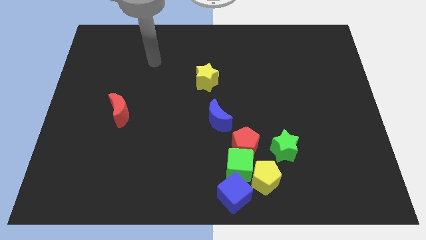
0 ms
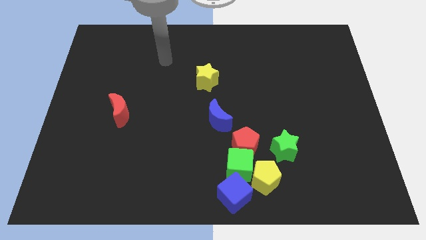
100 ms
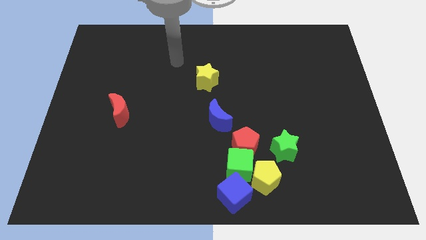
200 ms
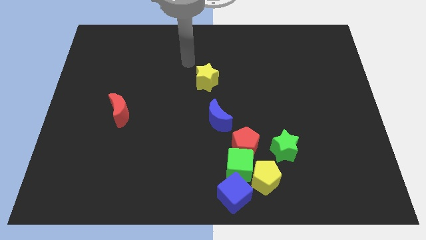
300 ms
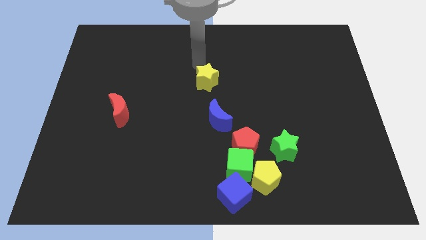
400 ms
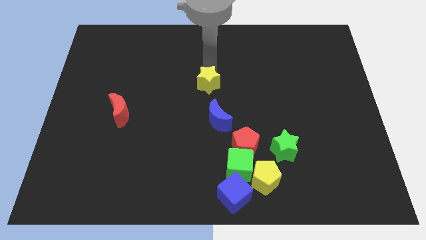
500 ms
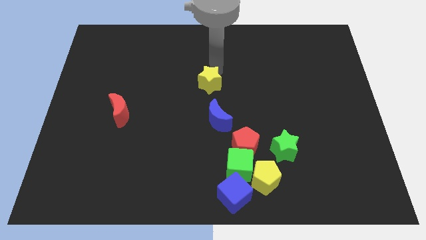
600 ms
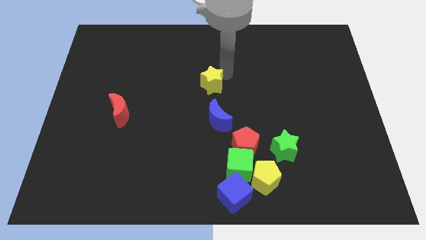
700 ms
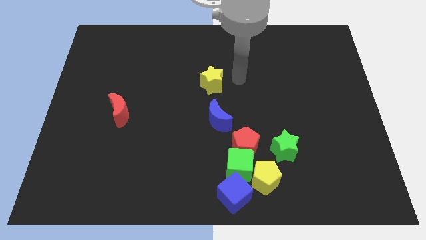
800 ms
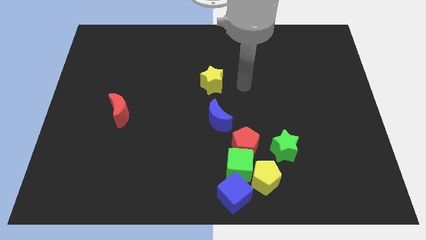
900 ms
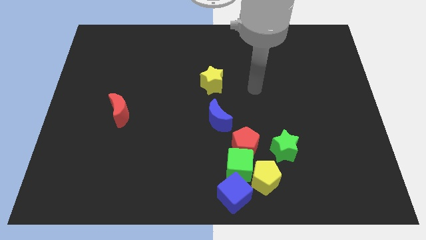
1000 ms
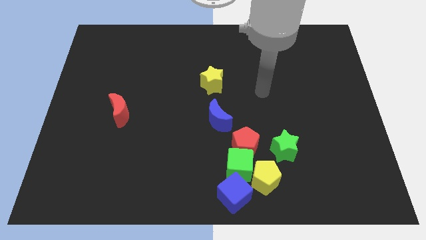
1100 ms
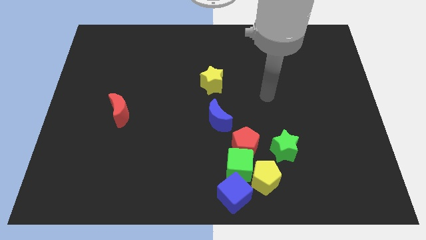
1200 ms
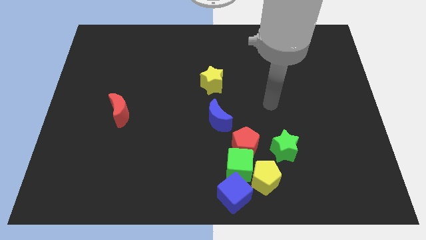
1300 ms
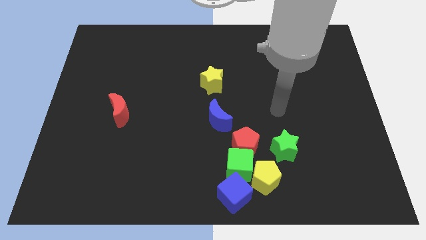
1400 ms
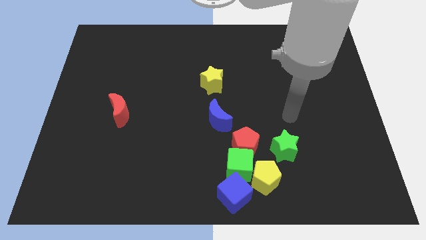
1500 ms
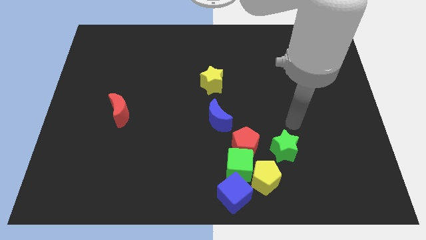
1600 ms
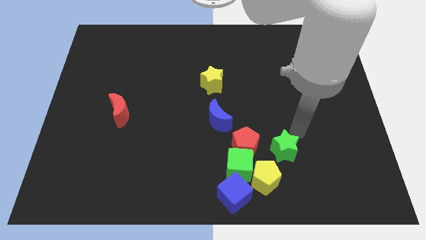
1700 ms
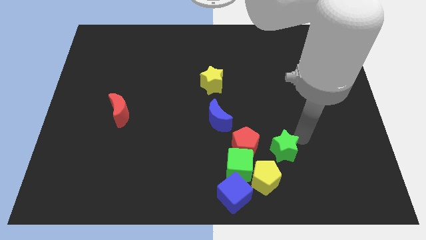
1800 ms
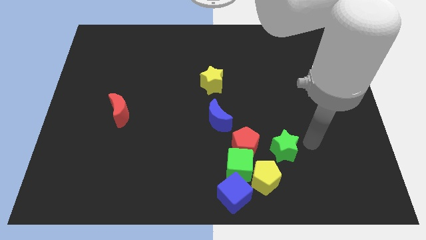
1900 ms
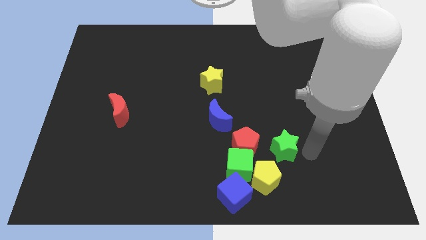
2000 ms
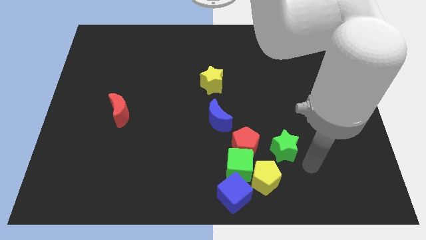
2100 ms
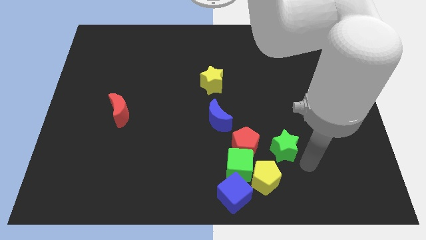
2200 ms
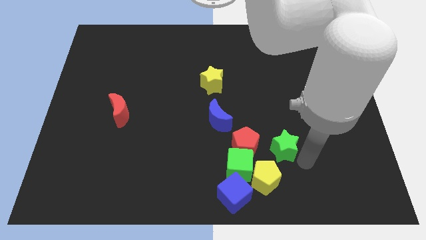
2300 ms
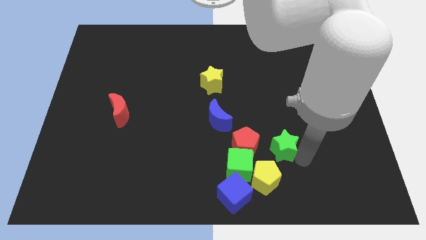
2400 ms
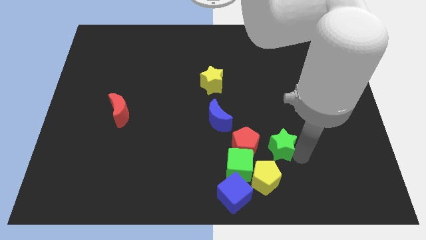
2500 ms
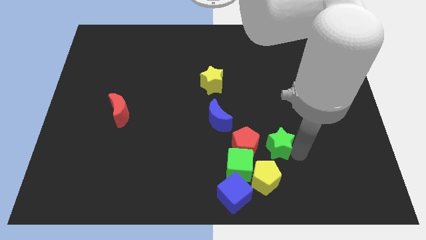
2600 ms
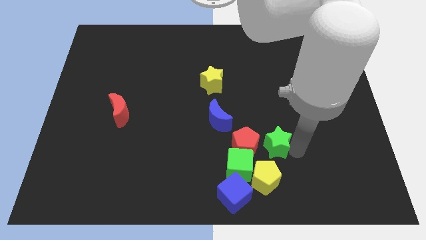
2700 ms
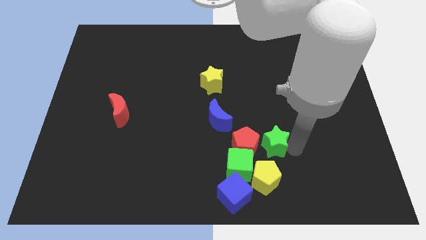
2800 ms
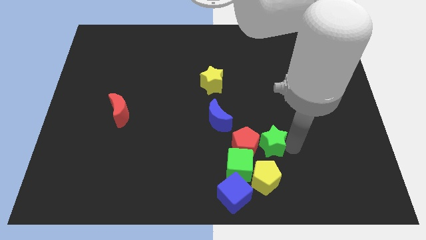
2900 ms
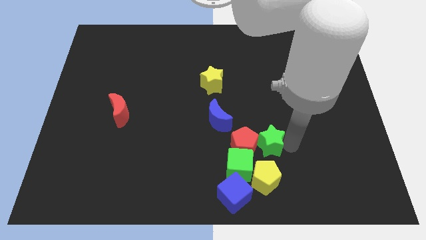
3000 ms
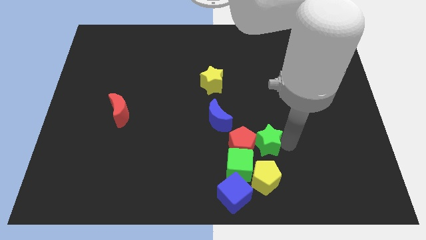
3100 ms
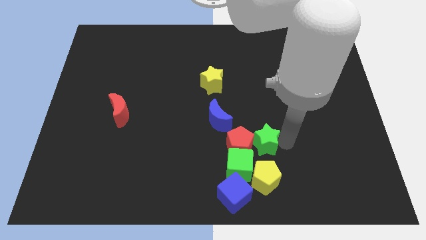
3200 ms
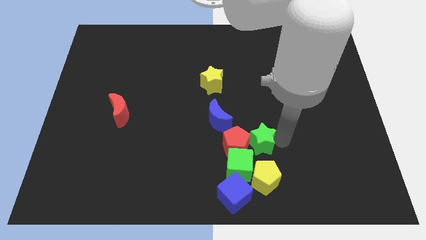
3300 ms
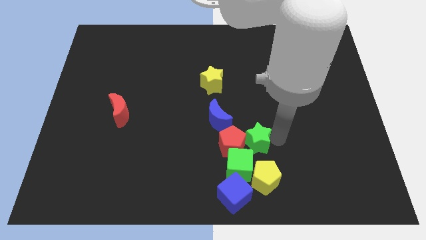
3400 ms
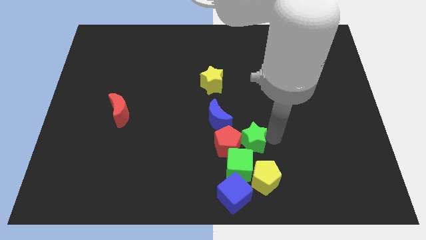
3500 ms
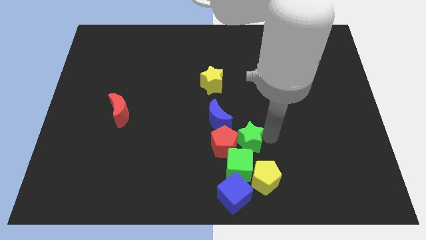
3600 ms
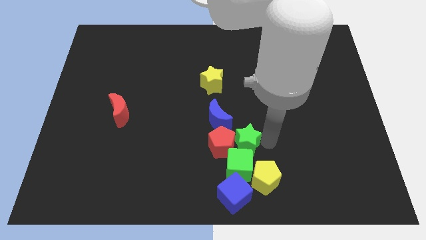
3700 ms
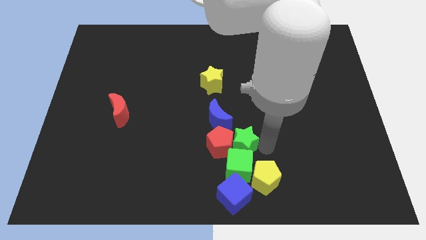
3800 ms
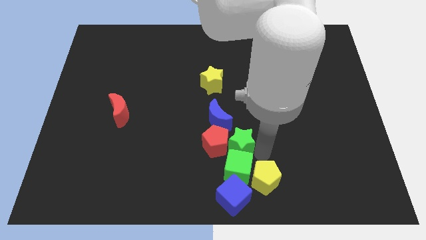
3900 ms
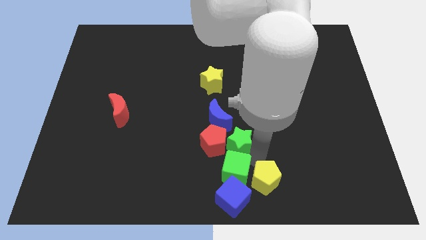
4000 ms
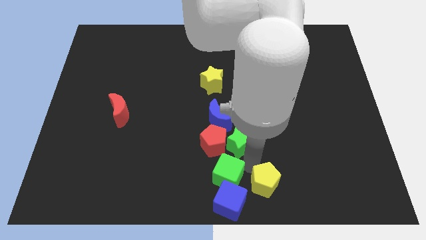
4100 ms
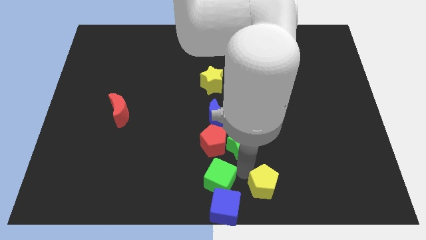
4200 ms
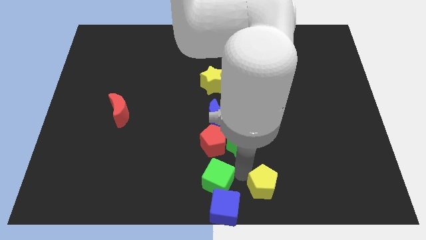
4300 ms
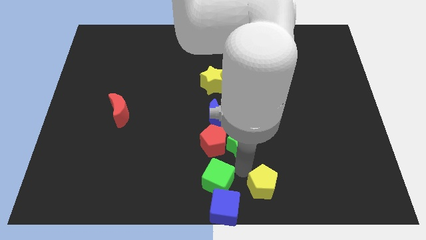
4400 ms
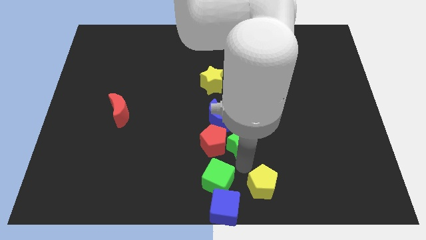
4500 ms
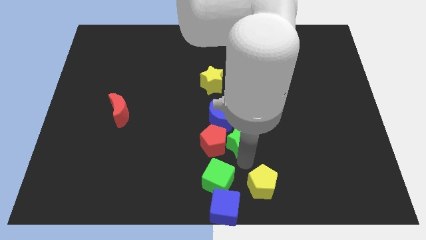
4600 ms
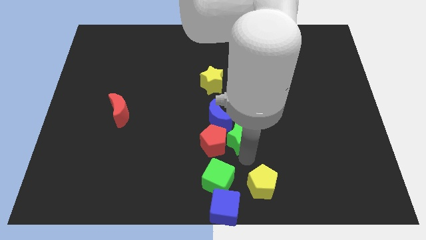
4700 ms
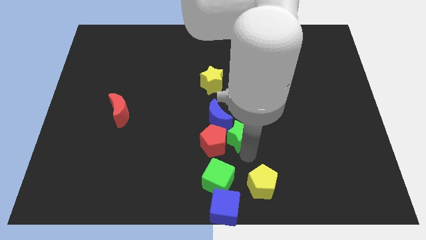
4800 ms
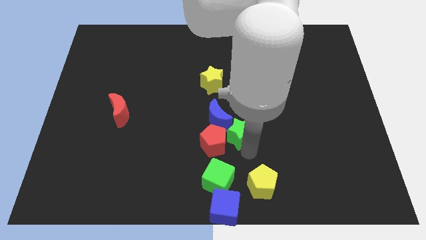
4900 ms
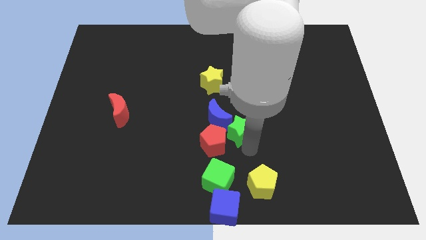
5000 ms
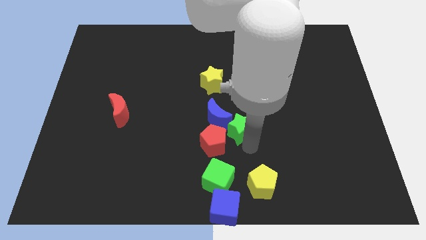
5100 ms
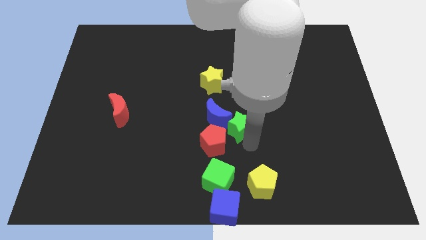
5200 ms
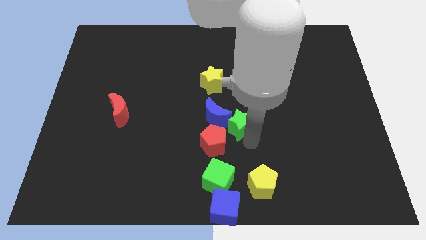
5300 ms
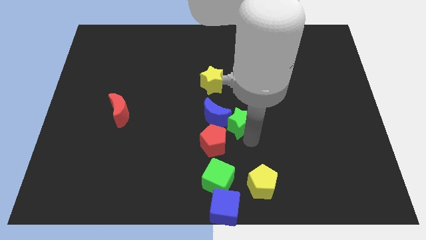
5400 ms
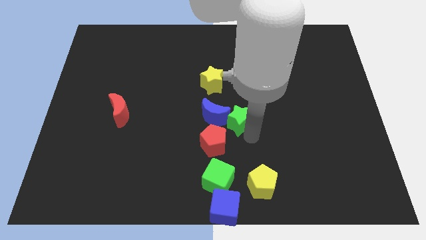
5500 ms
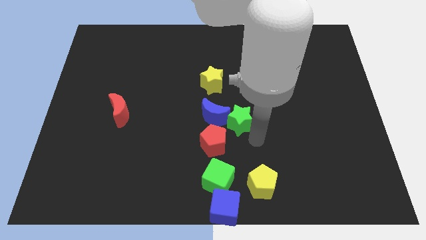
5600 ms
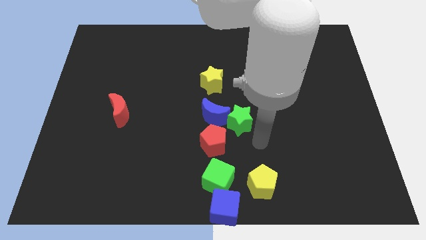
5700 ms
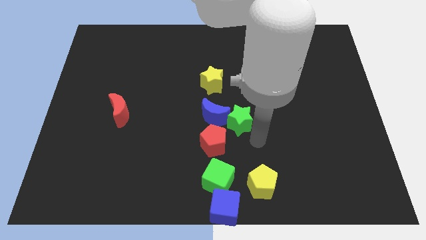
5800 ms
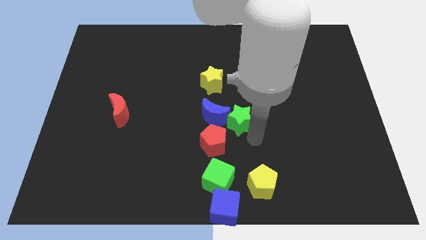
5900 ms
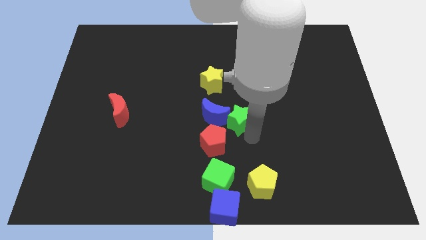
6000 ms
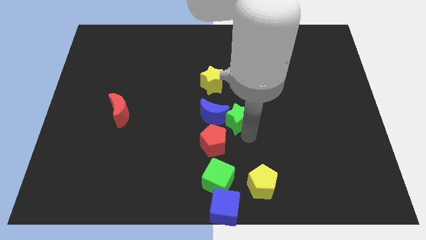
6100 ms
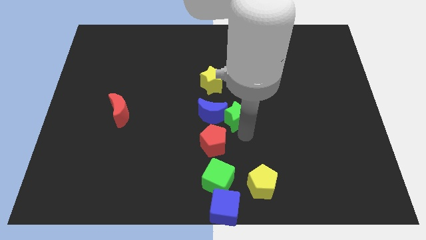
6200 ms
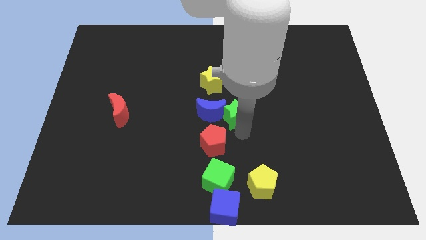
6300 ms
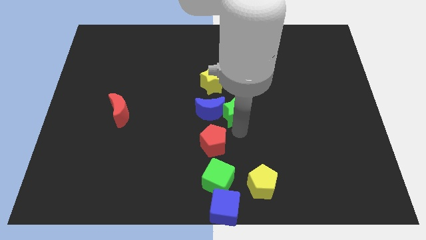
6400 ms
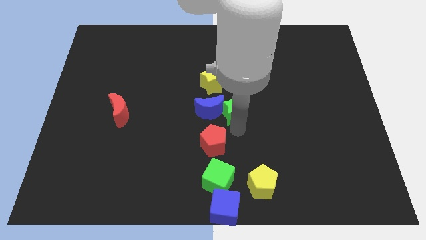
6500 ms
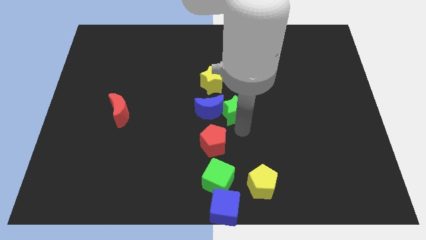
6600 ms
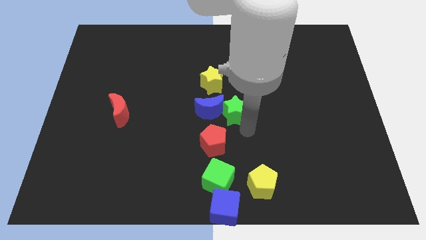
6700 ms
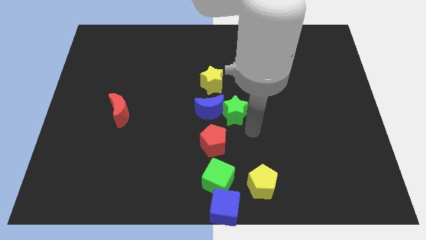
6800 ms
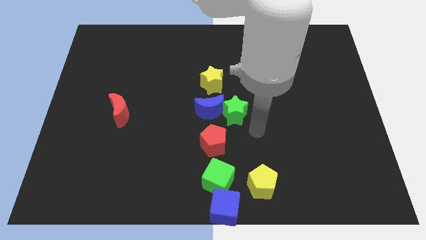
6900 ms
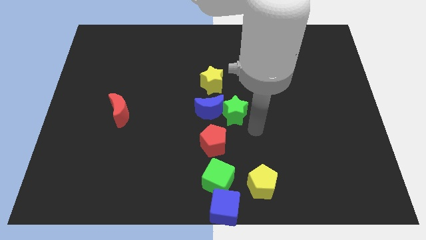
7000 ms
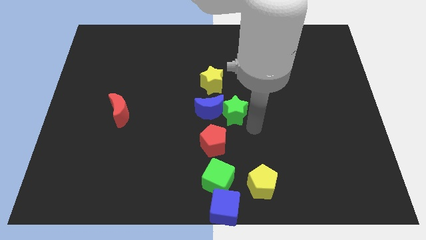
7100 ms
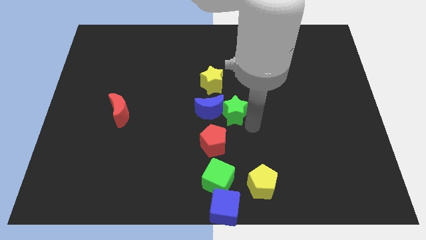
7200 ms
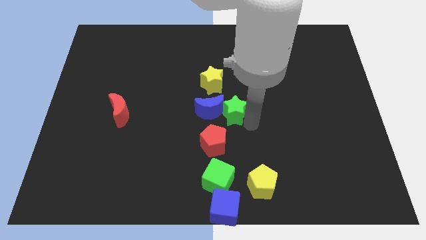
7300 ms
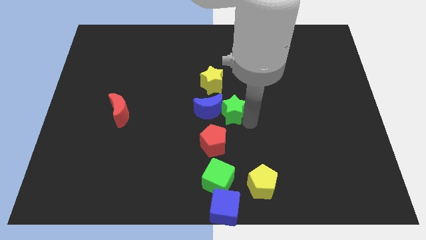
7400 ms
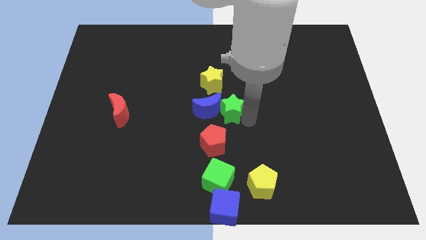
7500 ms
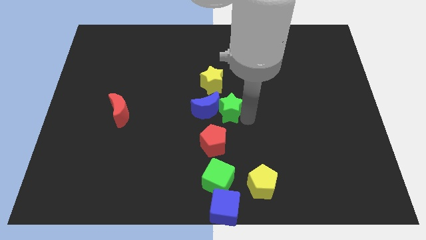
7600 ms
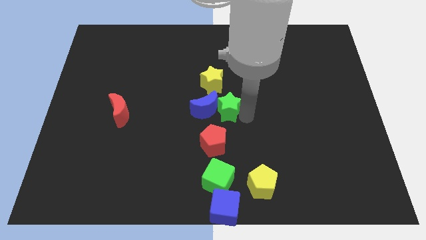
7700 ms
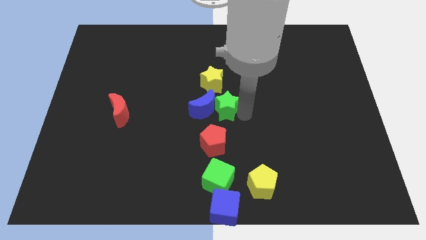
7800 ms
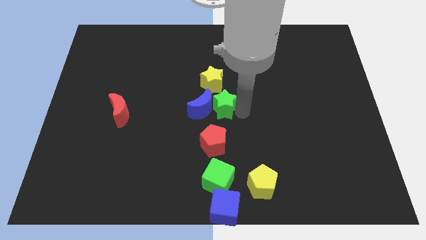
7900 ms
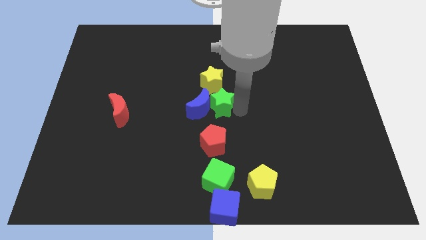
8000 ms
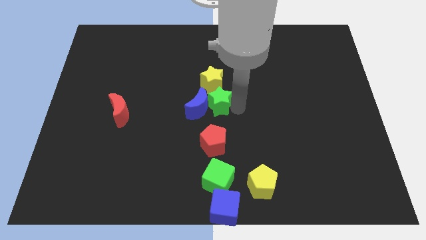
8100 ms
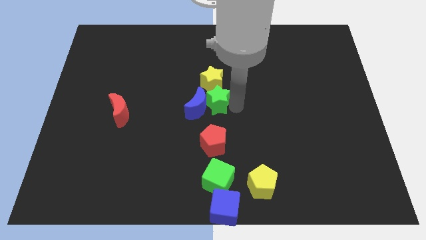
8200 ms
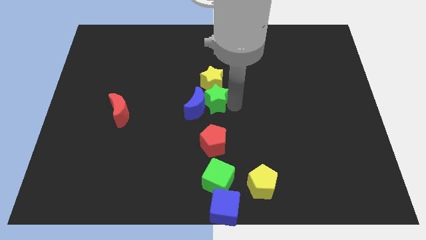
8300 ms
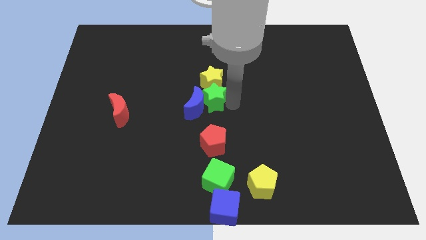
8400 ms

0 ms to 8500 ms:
slide the green star up and then to the left
